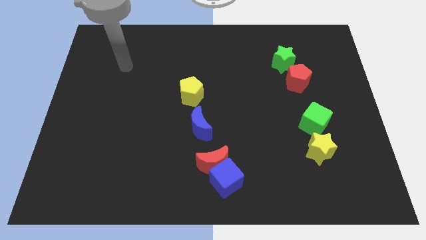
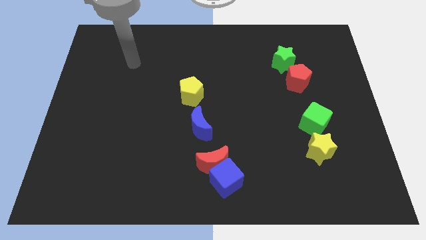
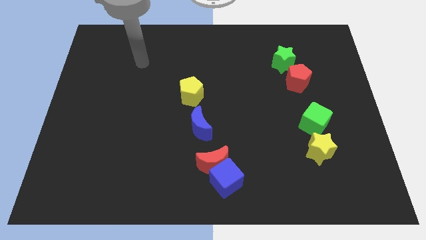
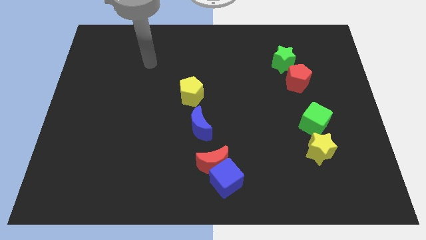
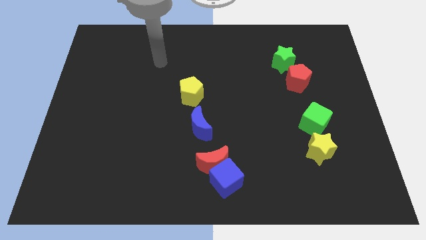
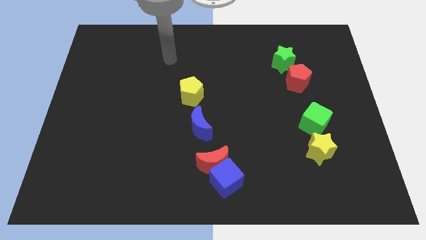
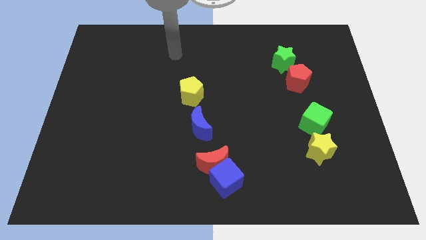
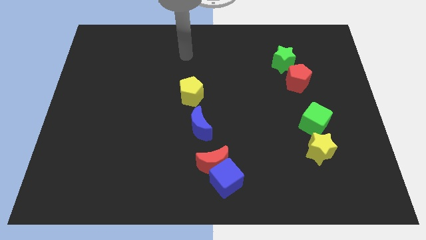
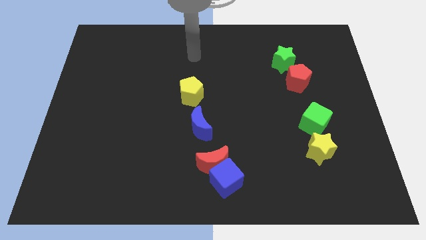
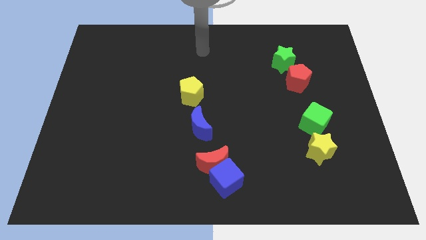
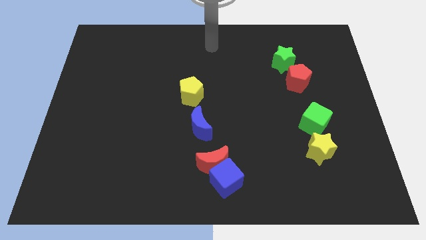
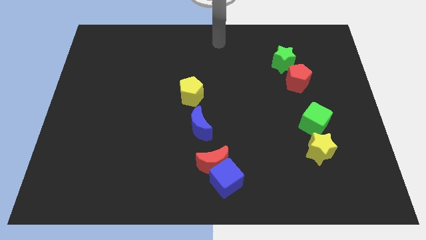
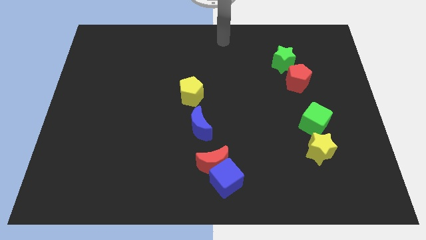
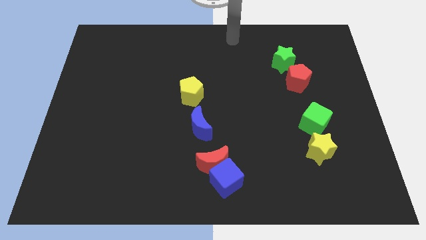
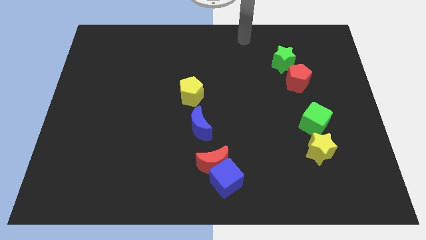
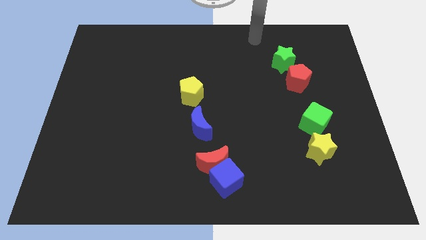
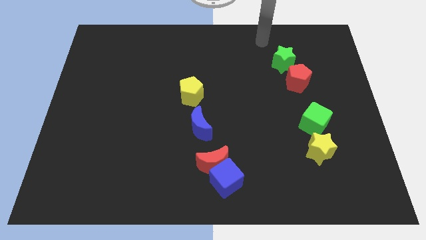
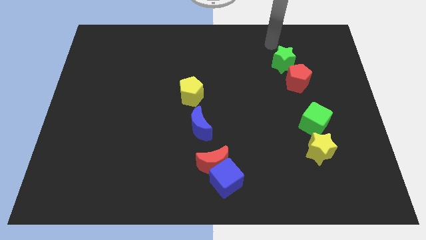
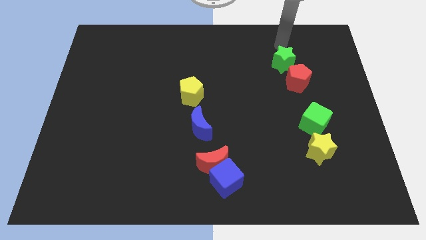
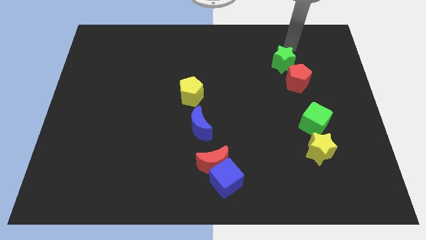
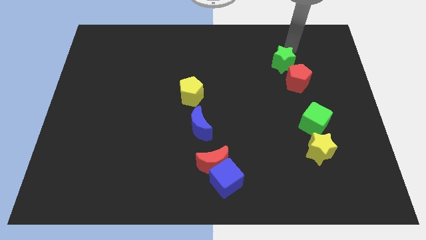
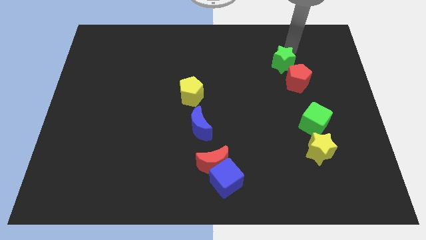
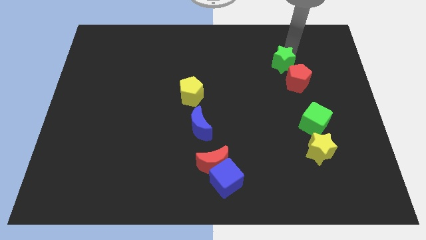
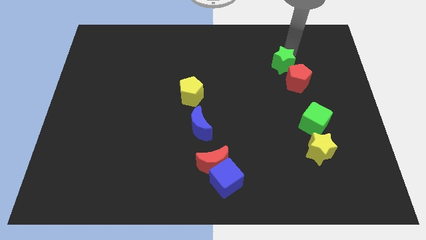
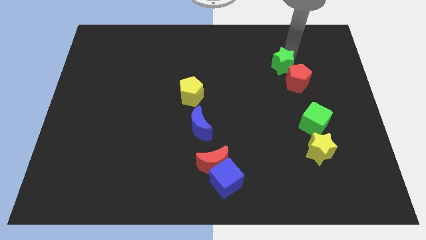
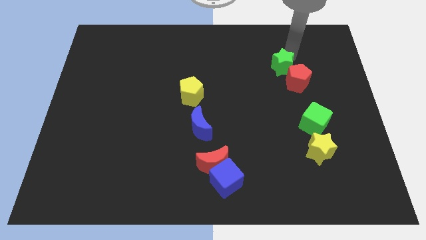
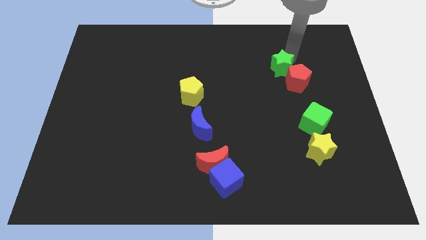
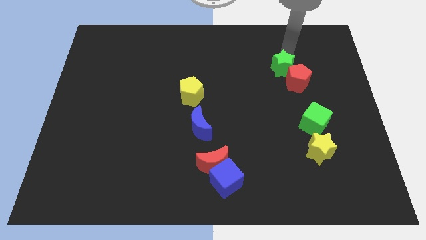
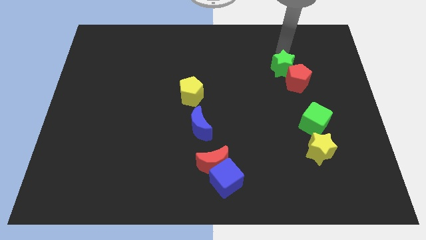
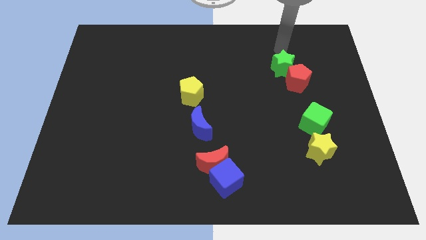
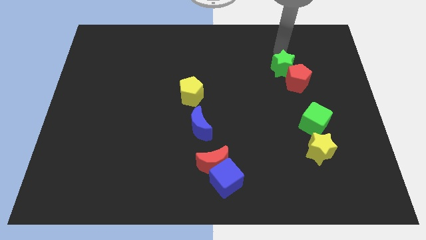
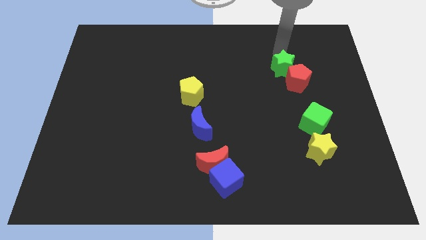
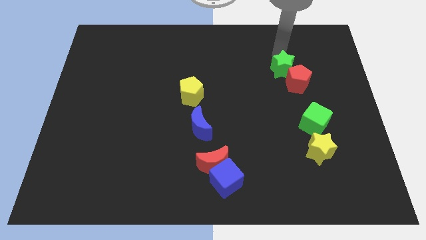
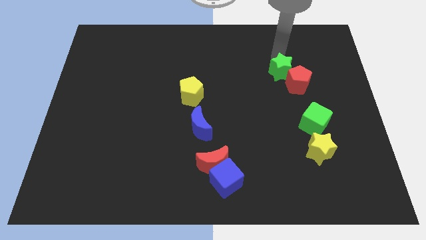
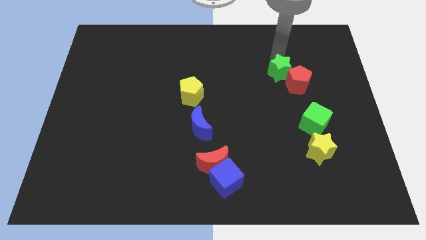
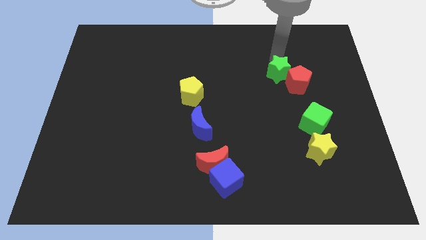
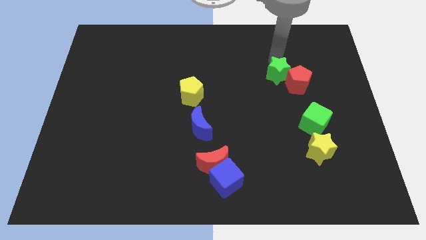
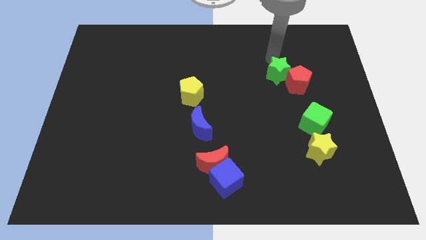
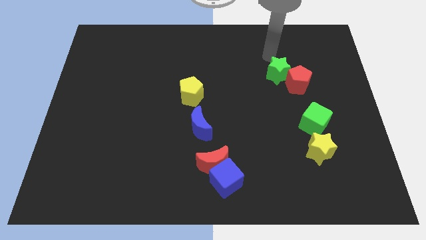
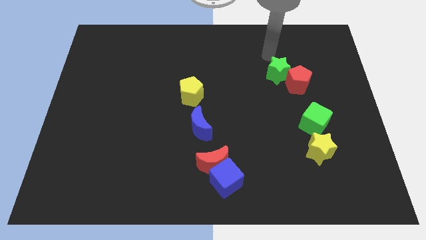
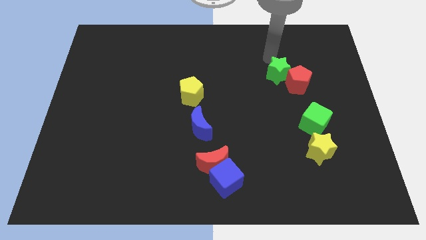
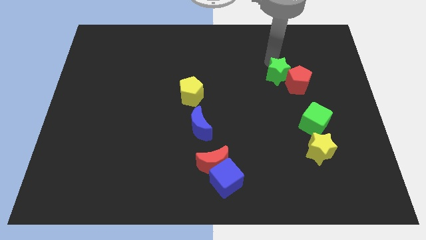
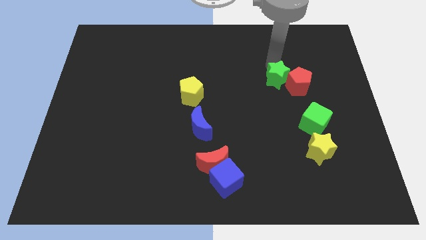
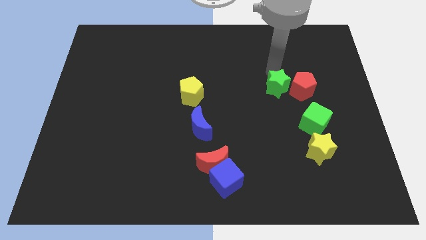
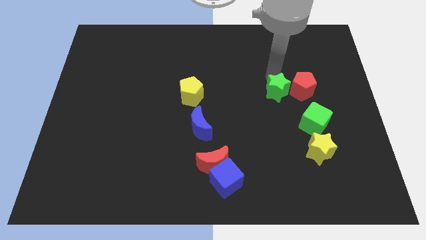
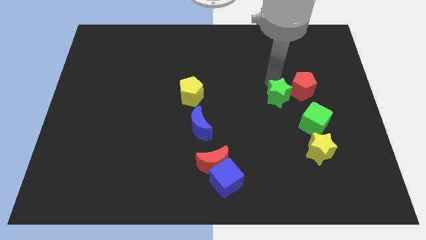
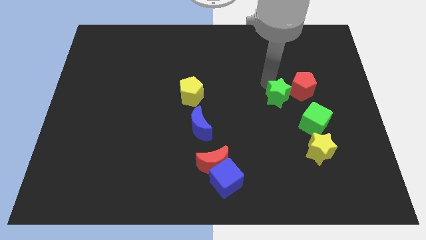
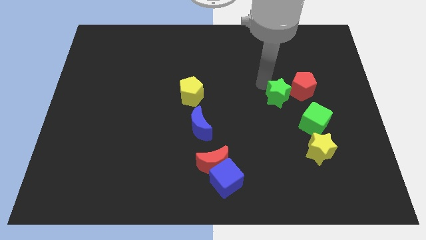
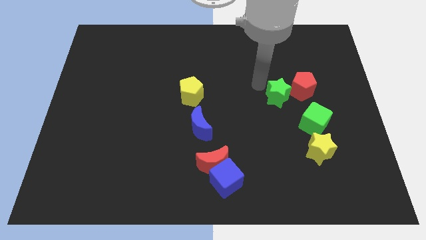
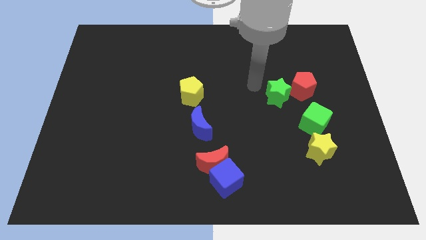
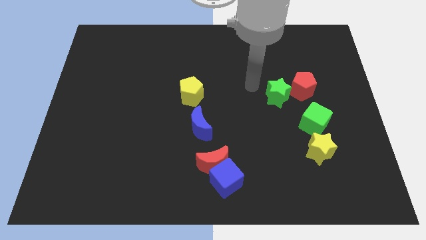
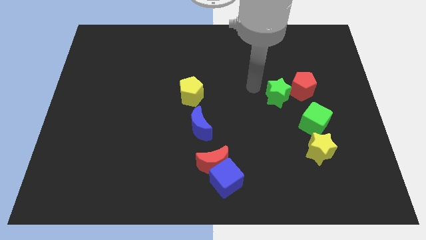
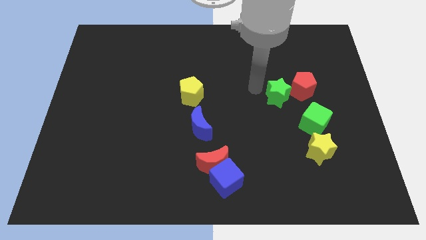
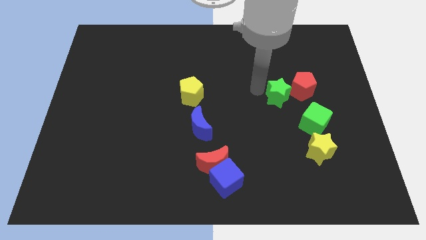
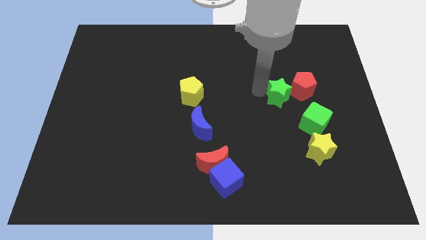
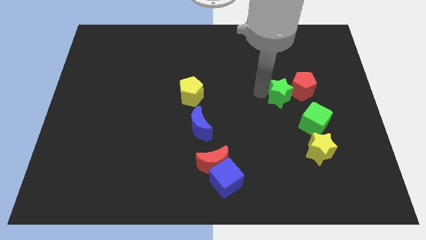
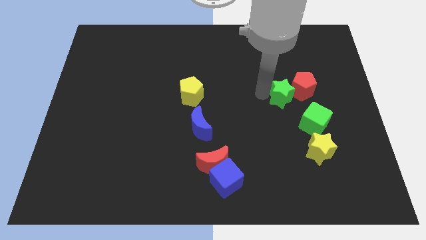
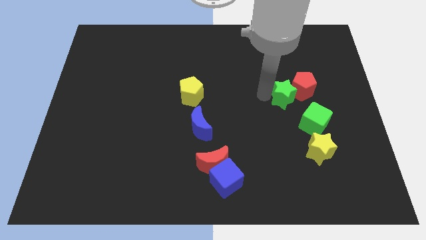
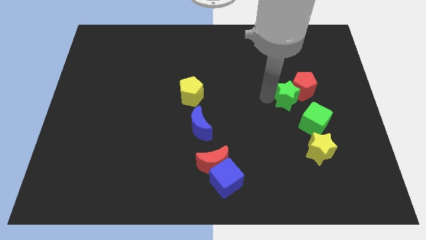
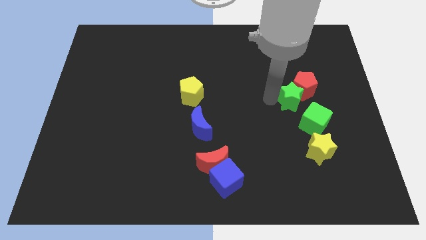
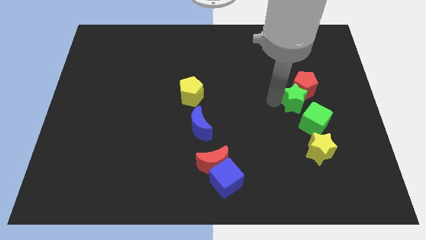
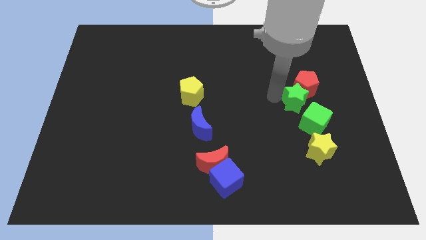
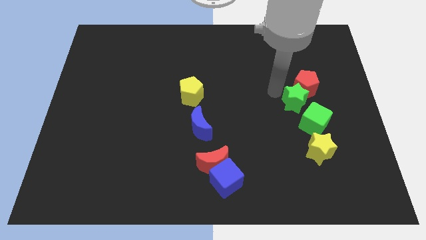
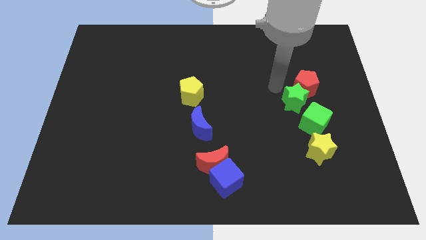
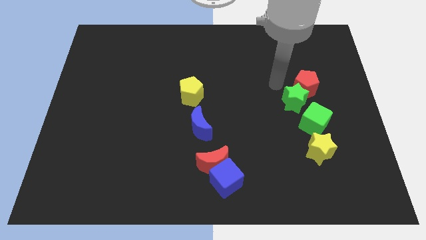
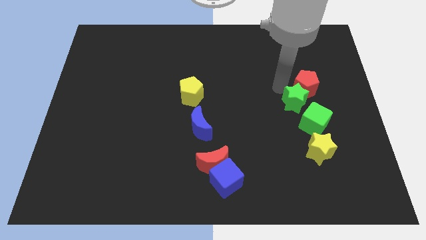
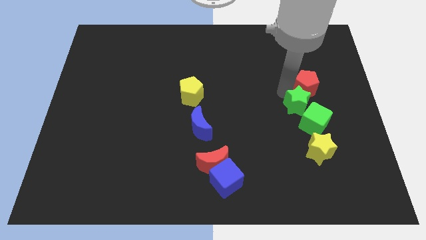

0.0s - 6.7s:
move the green star towards the green cube
